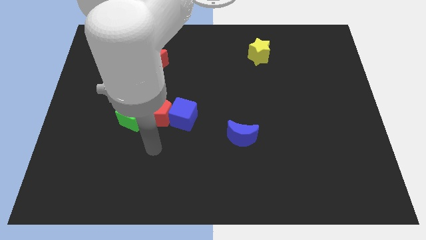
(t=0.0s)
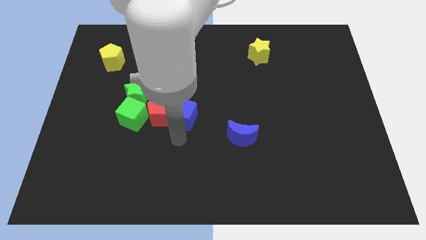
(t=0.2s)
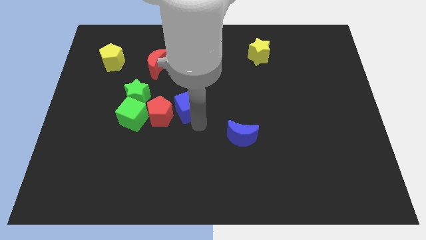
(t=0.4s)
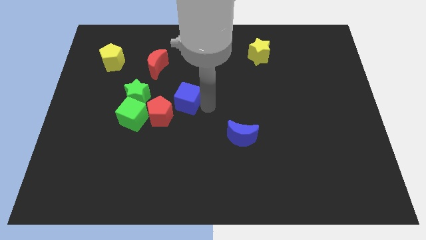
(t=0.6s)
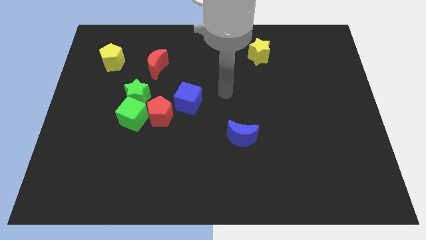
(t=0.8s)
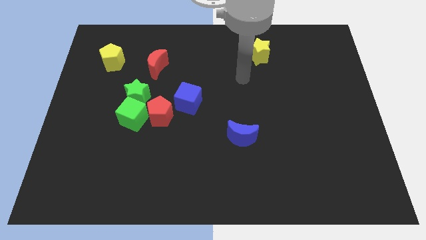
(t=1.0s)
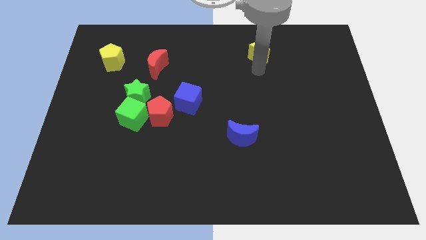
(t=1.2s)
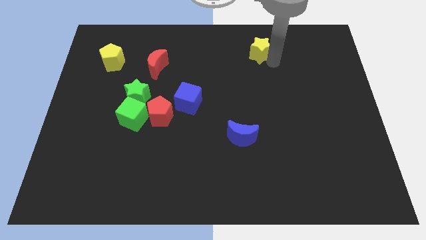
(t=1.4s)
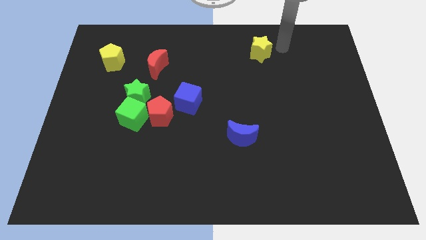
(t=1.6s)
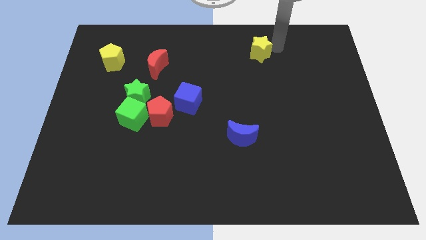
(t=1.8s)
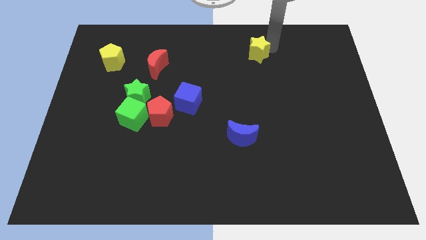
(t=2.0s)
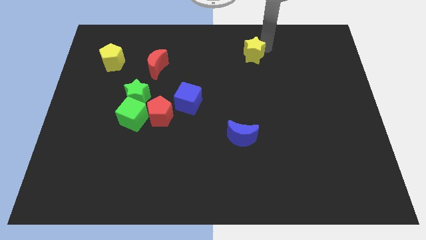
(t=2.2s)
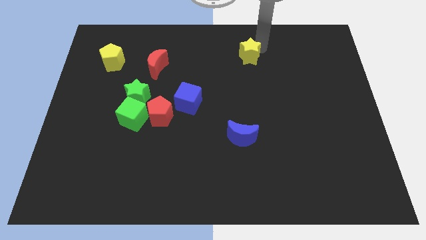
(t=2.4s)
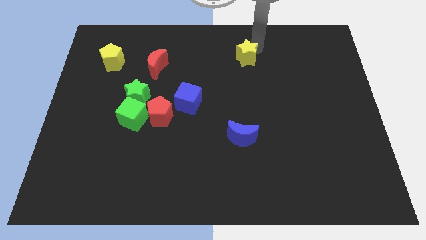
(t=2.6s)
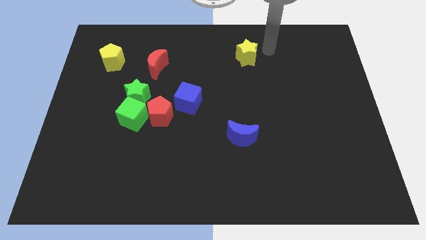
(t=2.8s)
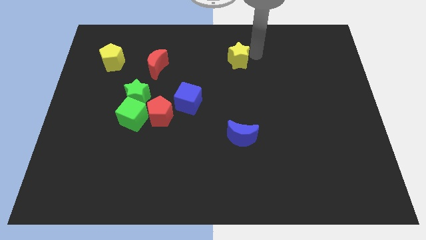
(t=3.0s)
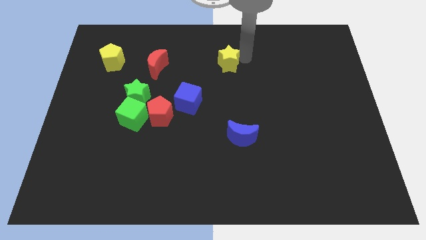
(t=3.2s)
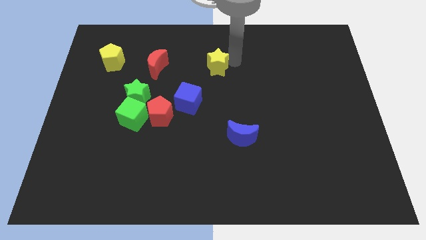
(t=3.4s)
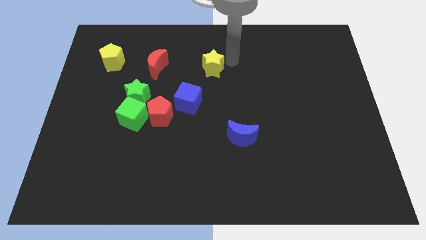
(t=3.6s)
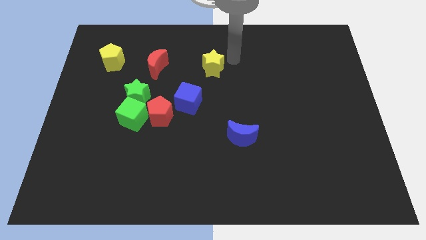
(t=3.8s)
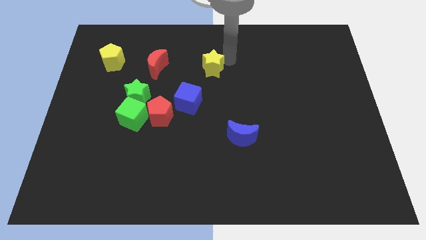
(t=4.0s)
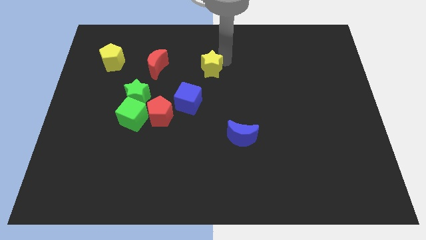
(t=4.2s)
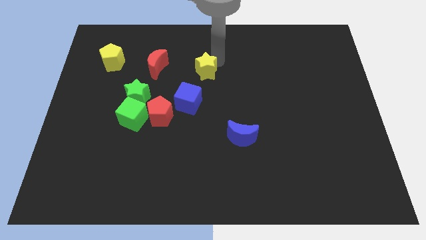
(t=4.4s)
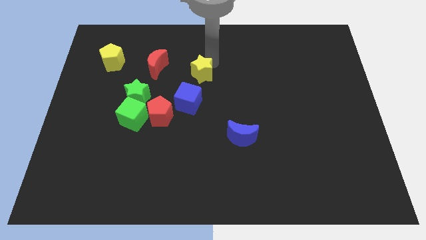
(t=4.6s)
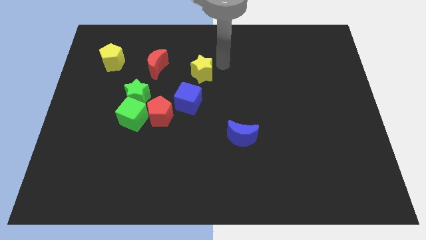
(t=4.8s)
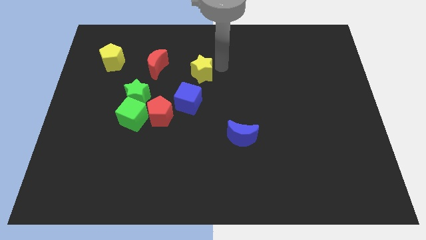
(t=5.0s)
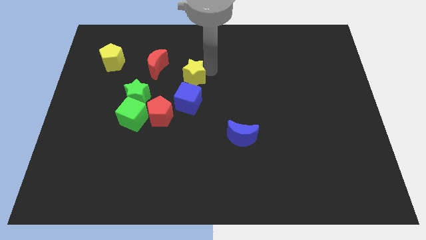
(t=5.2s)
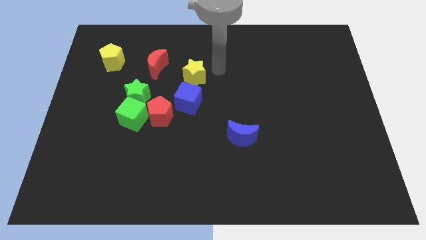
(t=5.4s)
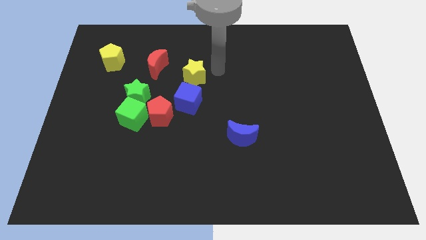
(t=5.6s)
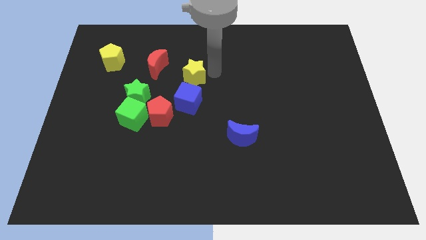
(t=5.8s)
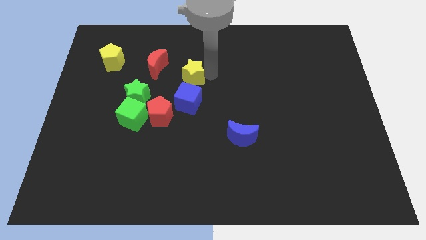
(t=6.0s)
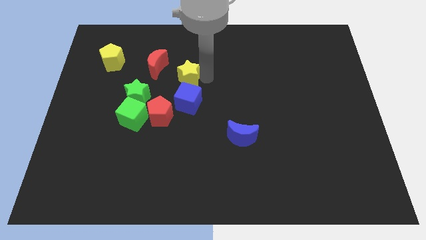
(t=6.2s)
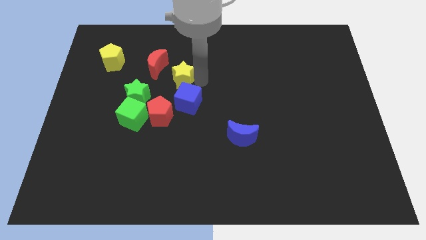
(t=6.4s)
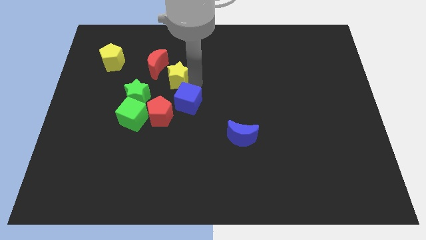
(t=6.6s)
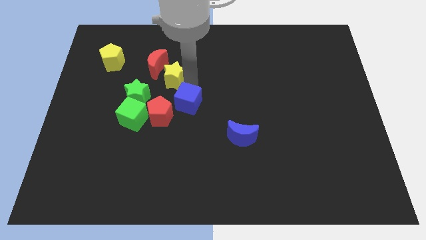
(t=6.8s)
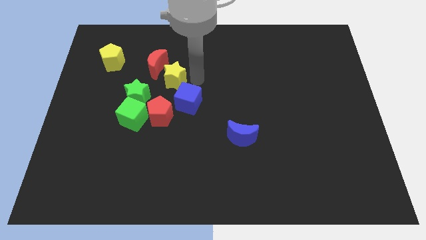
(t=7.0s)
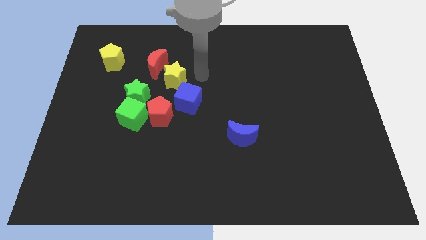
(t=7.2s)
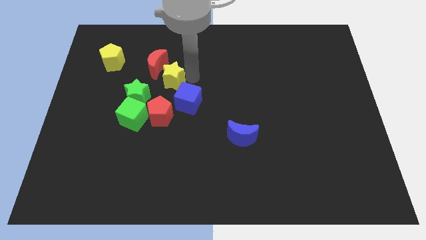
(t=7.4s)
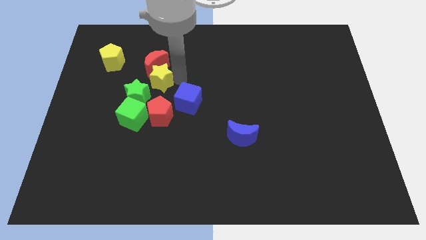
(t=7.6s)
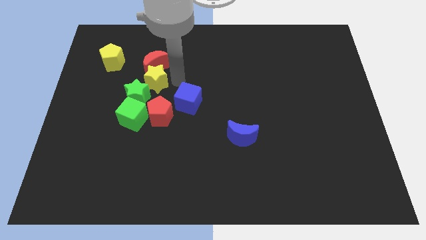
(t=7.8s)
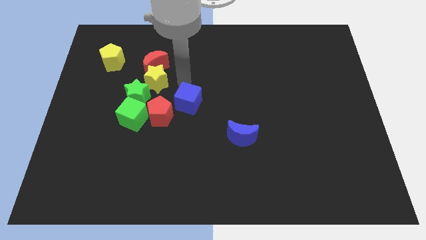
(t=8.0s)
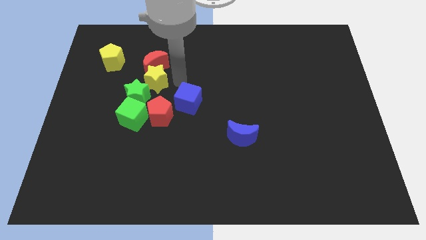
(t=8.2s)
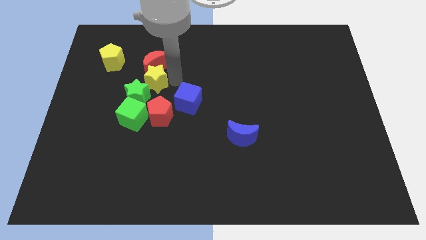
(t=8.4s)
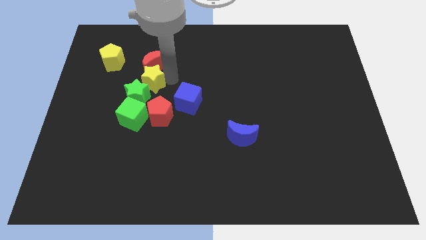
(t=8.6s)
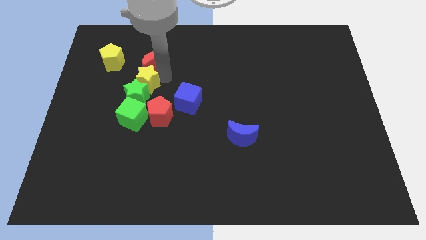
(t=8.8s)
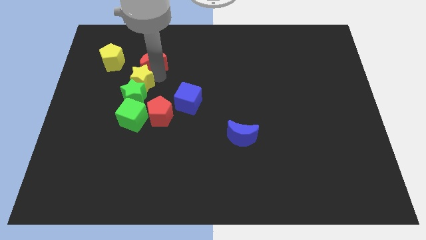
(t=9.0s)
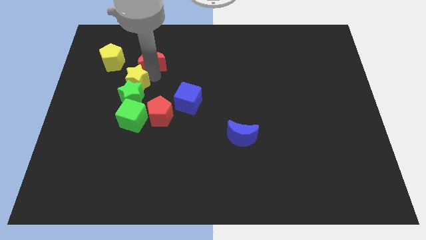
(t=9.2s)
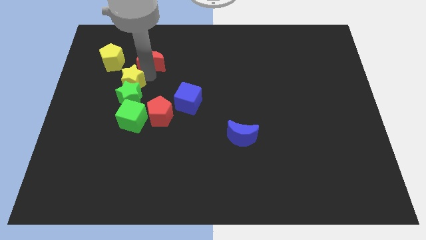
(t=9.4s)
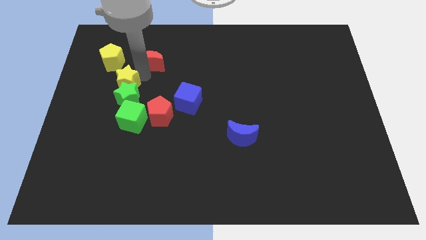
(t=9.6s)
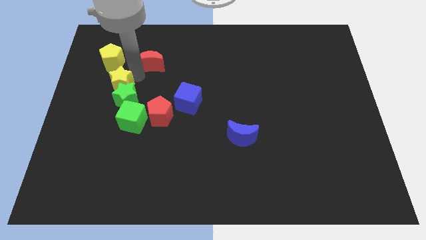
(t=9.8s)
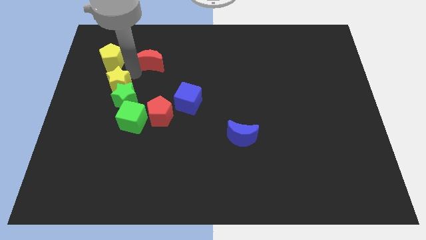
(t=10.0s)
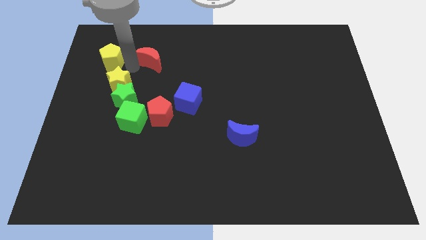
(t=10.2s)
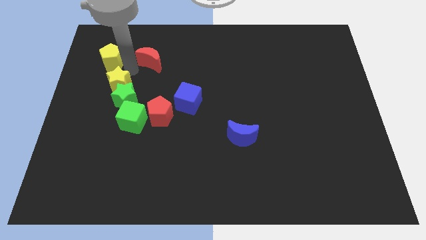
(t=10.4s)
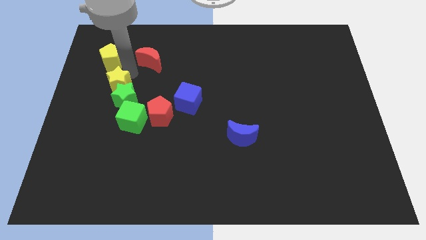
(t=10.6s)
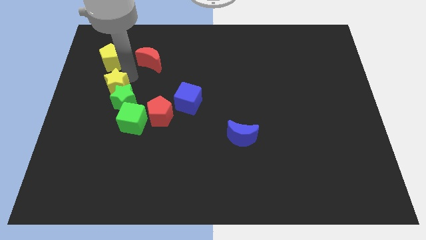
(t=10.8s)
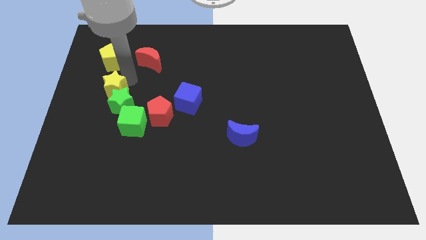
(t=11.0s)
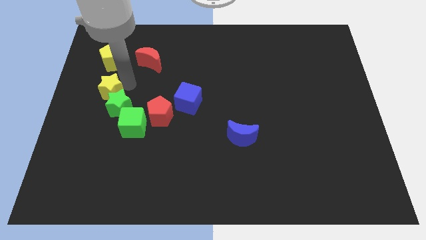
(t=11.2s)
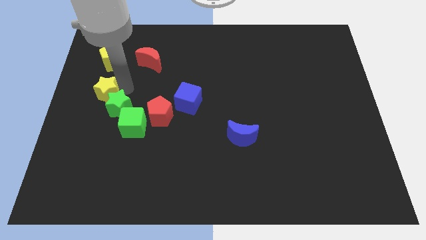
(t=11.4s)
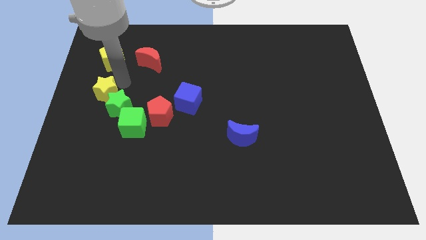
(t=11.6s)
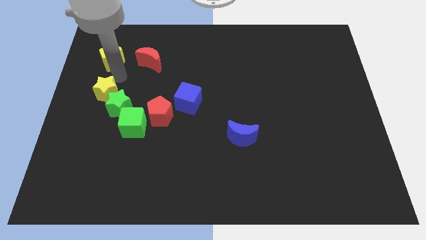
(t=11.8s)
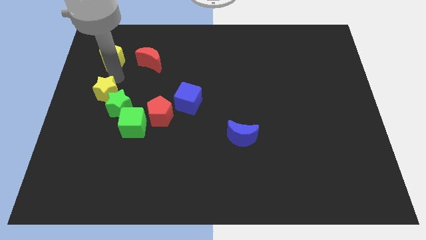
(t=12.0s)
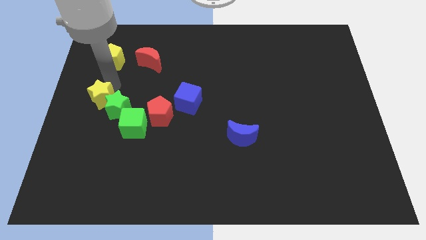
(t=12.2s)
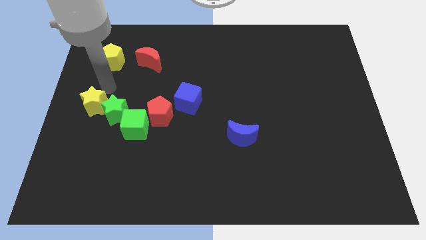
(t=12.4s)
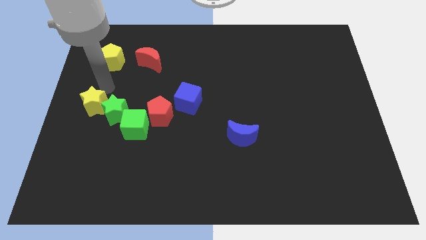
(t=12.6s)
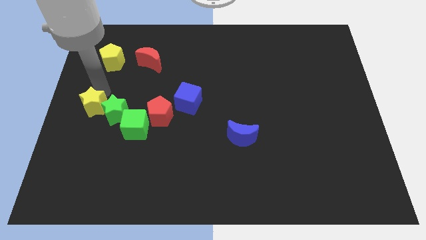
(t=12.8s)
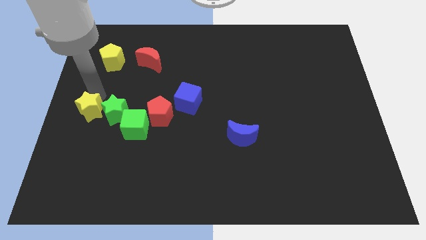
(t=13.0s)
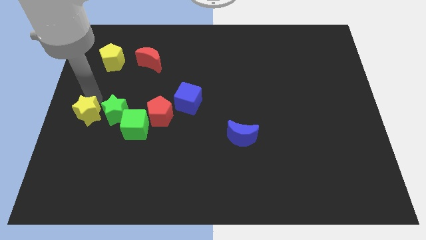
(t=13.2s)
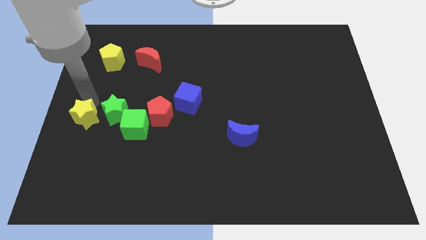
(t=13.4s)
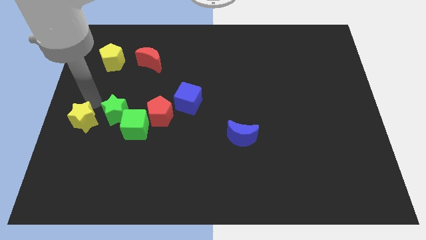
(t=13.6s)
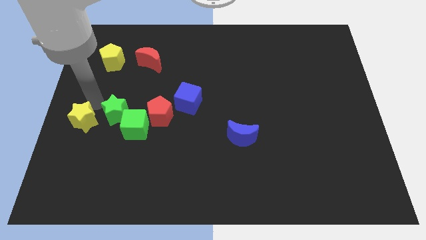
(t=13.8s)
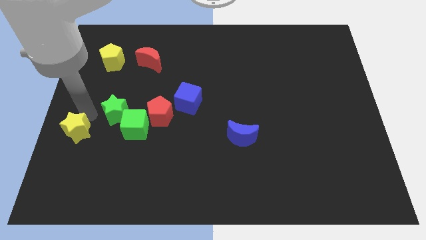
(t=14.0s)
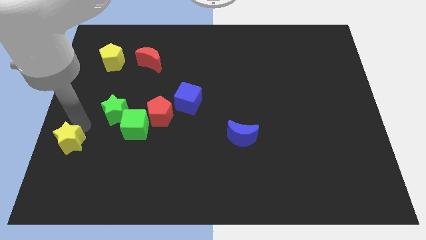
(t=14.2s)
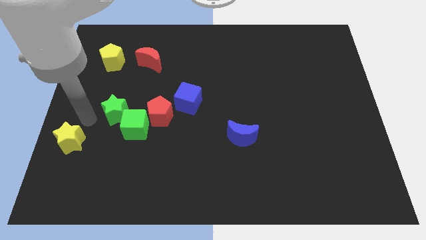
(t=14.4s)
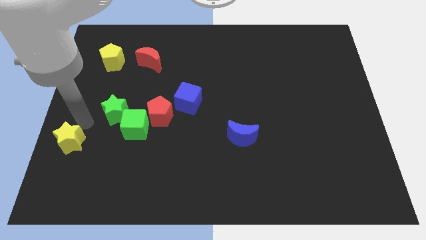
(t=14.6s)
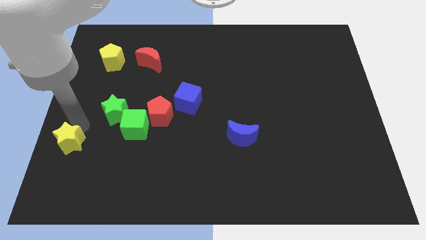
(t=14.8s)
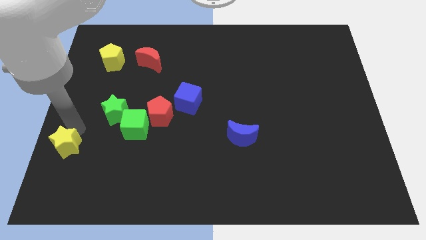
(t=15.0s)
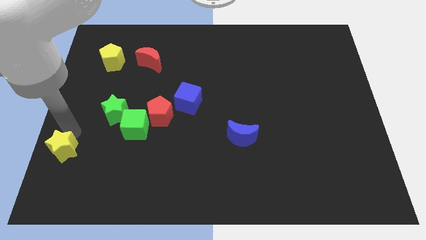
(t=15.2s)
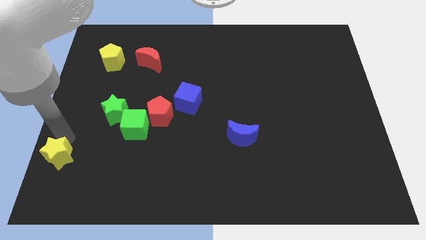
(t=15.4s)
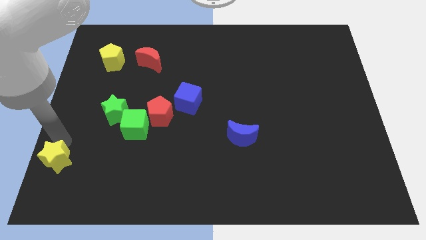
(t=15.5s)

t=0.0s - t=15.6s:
put the yellow star to the bottom left corner
